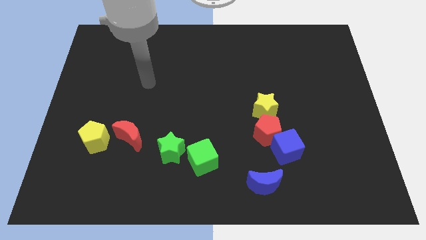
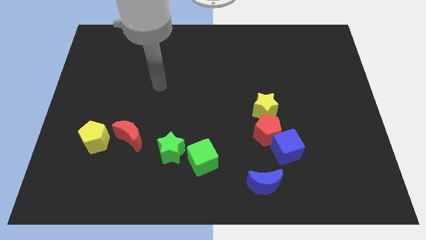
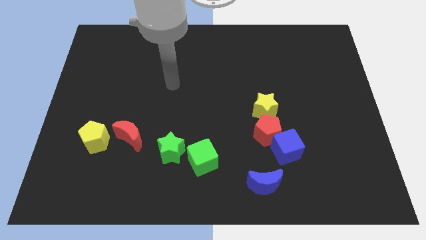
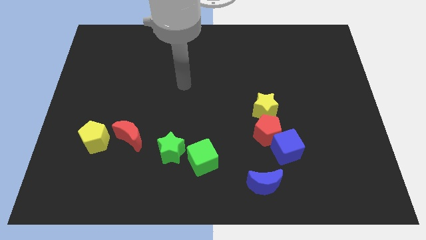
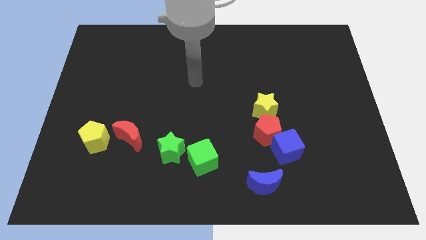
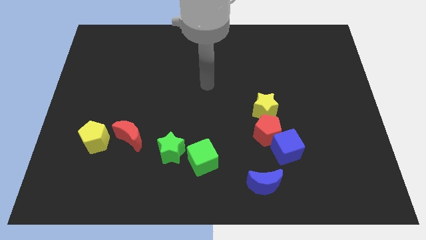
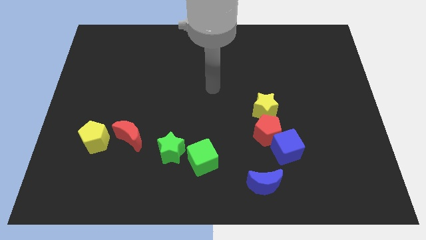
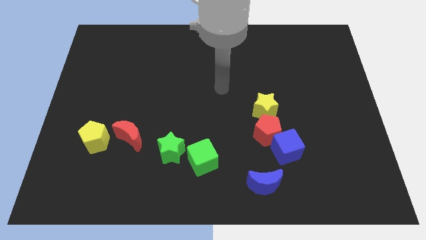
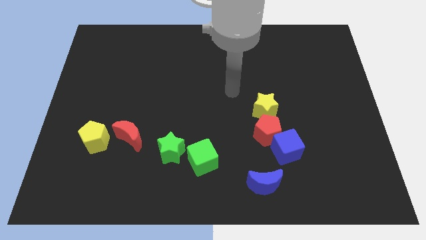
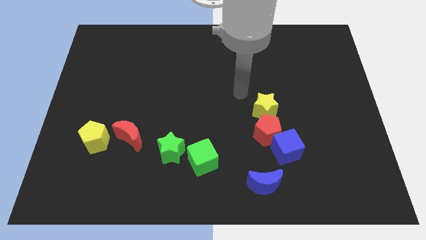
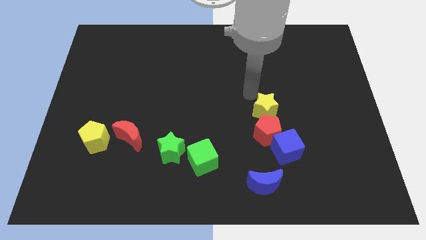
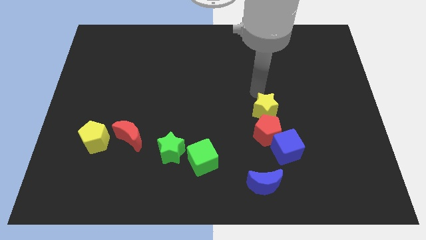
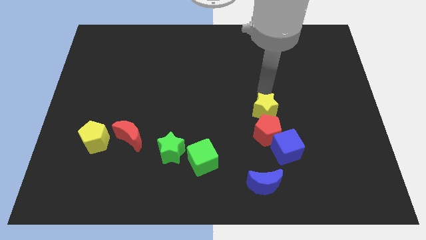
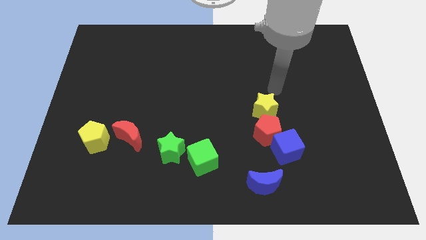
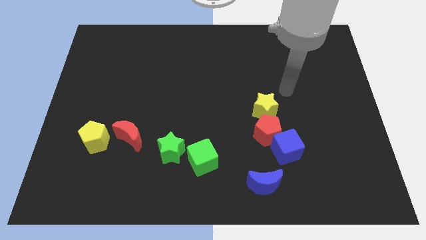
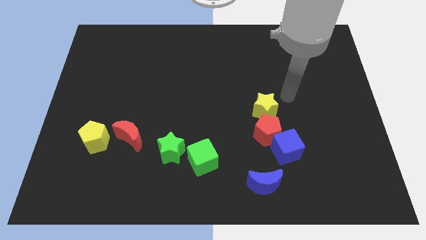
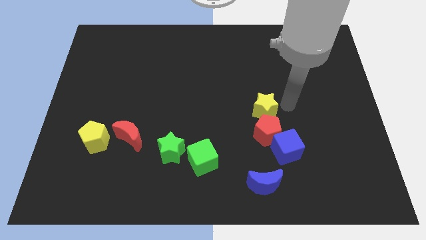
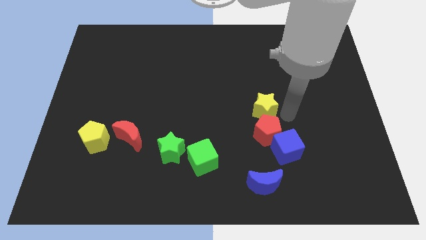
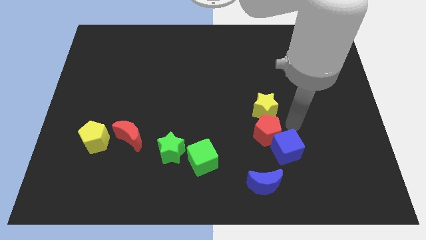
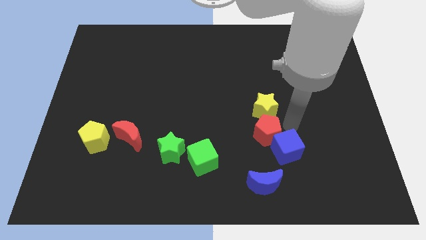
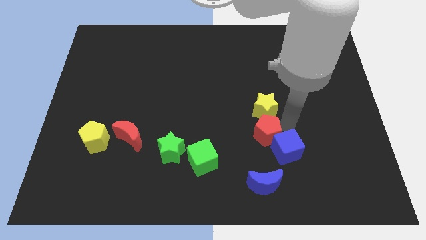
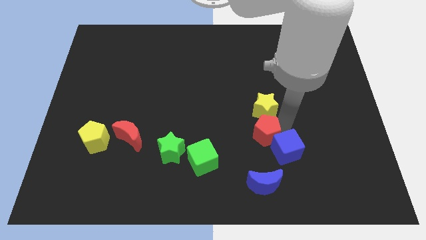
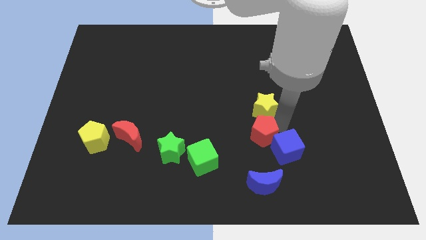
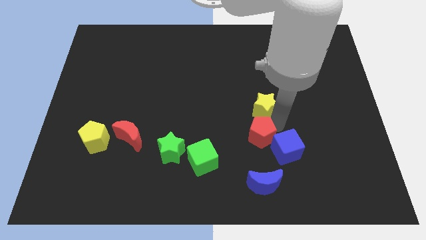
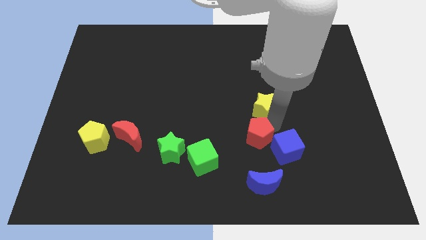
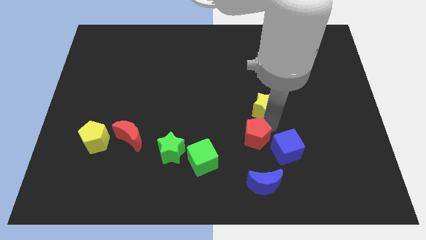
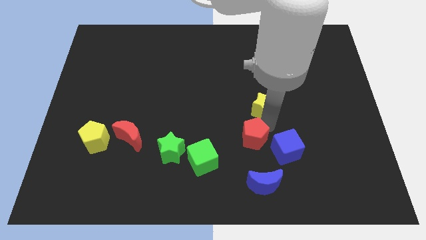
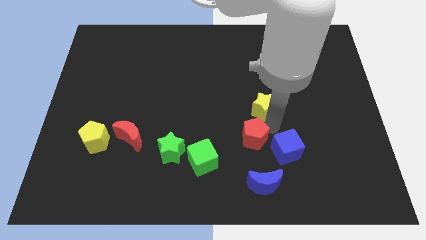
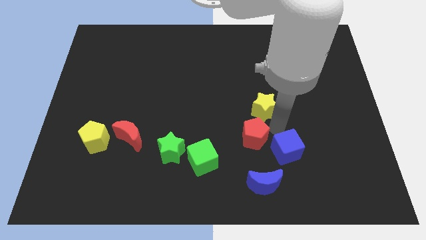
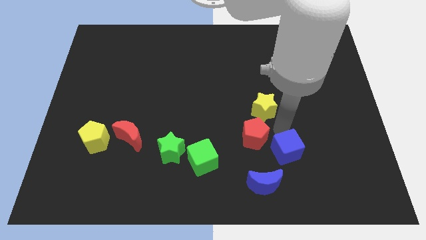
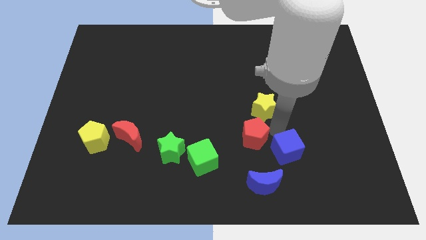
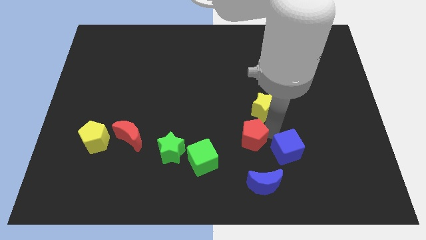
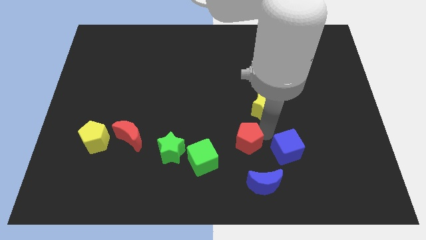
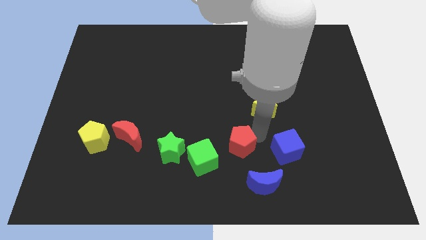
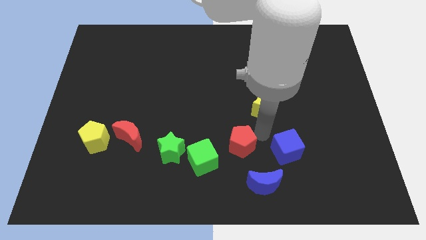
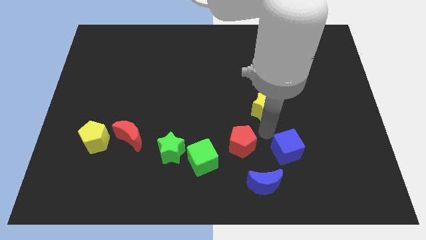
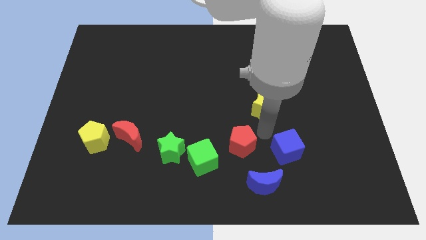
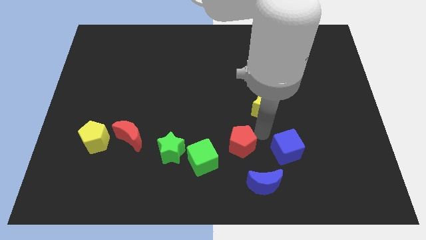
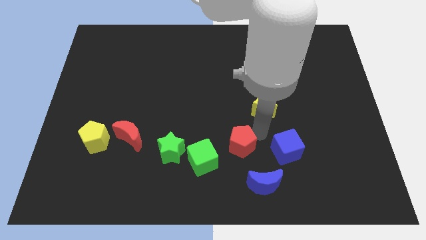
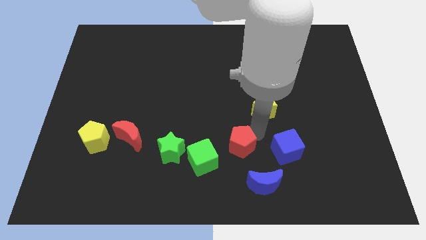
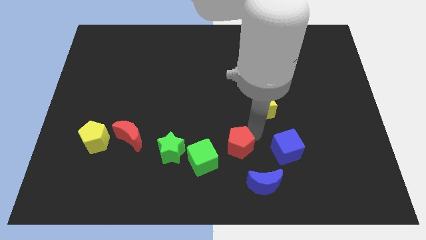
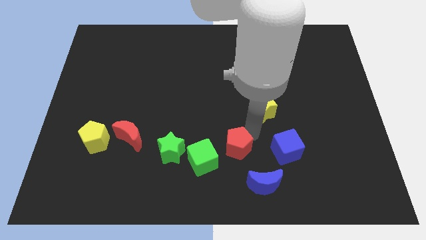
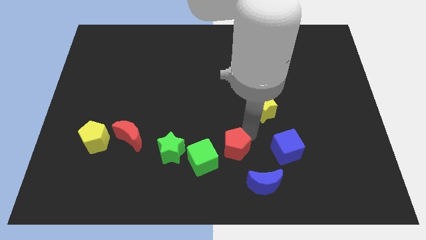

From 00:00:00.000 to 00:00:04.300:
separate the red pentagon from the blue cube and yellow star

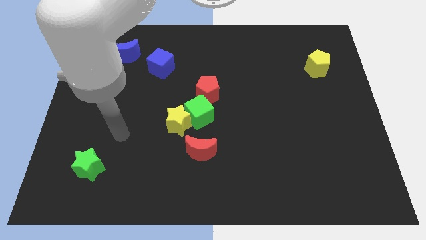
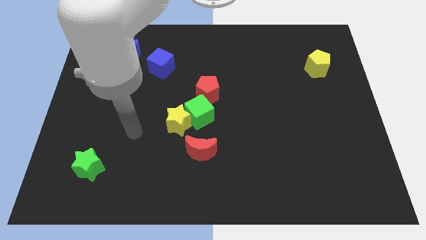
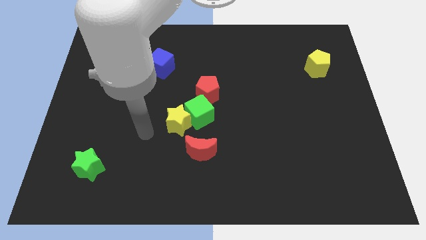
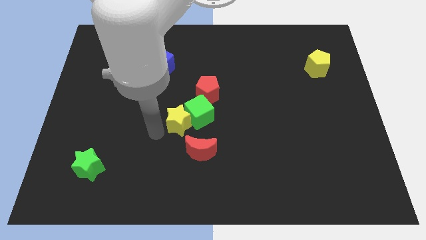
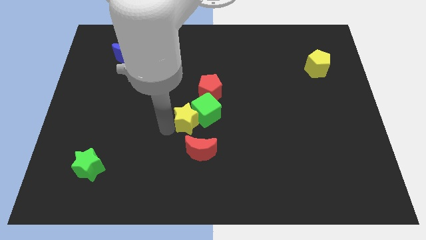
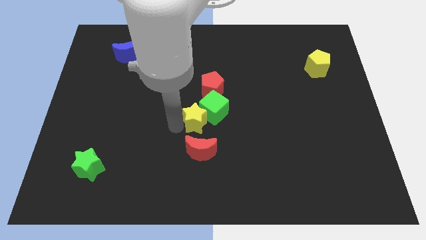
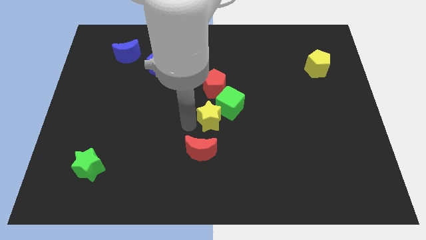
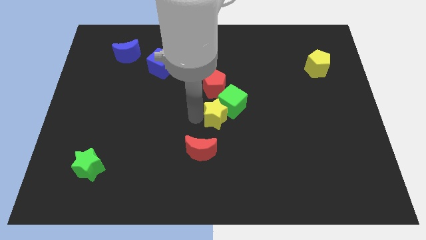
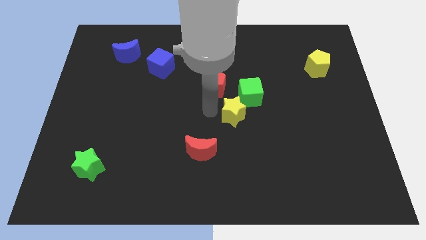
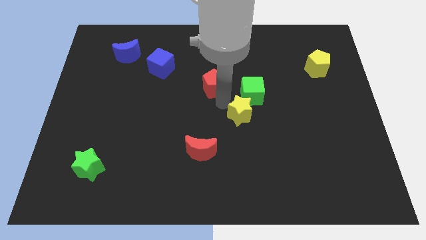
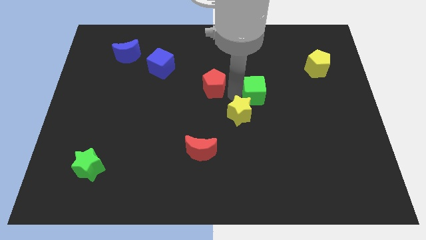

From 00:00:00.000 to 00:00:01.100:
move the red pentagon away from the green cube

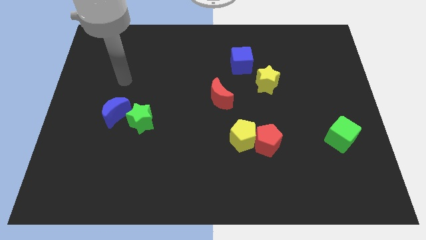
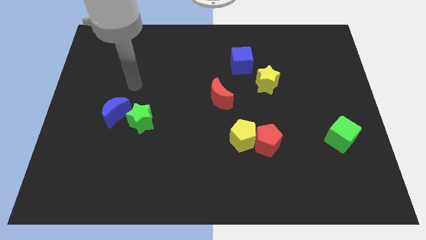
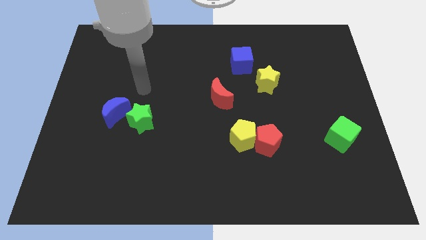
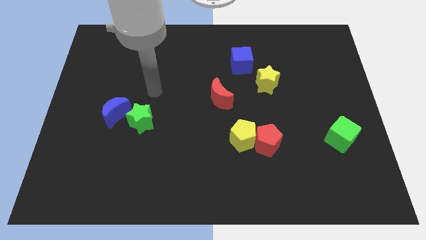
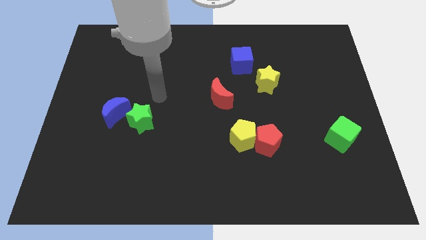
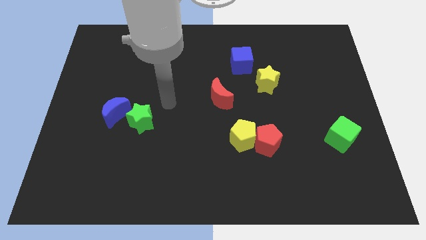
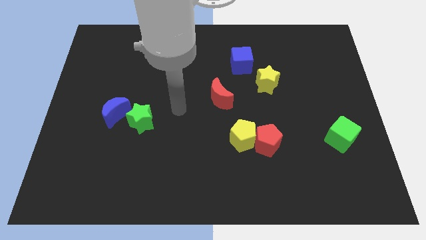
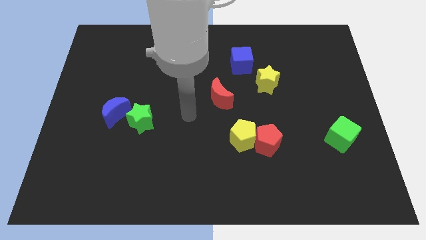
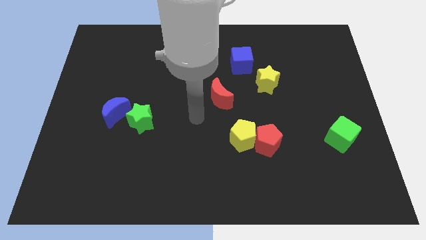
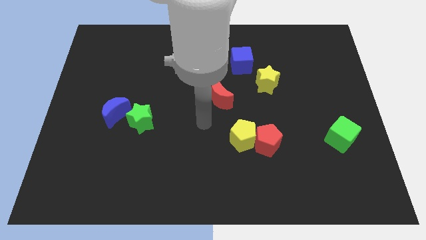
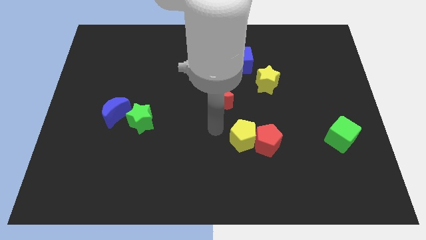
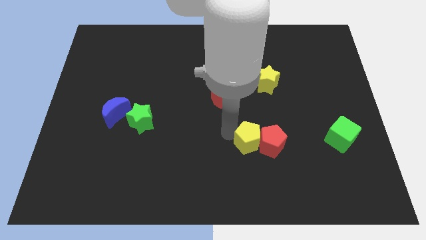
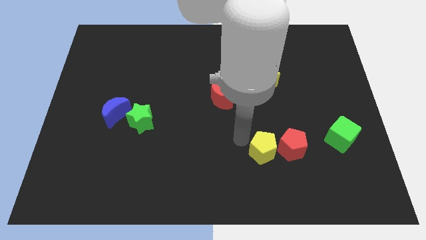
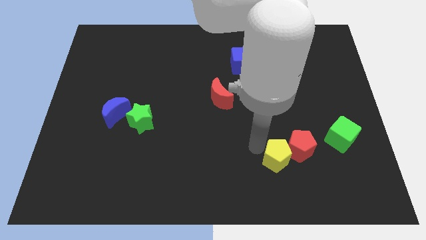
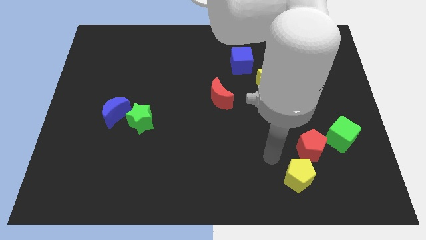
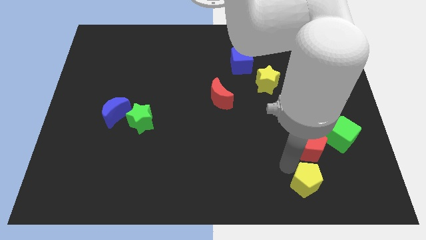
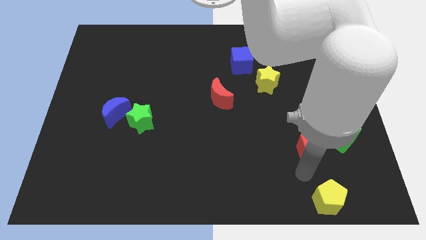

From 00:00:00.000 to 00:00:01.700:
move the red pentagon away from the yellow pentagon

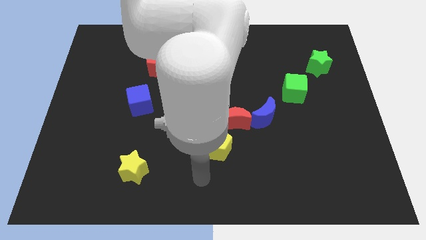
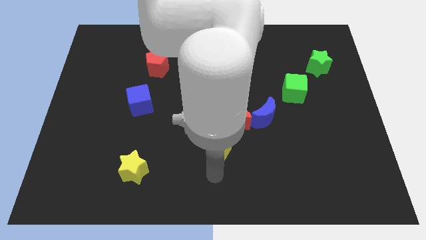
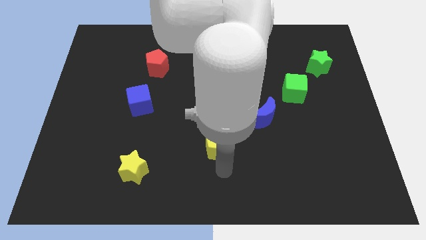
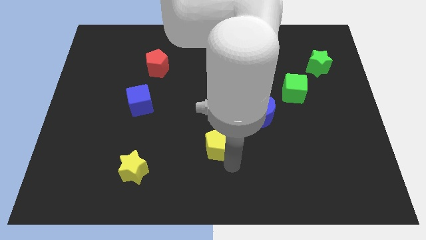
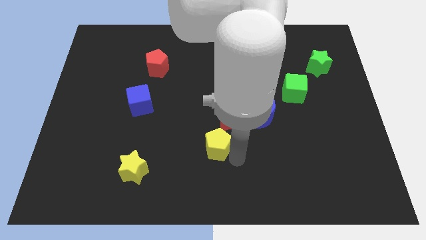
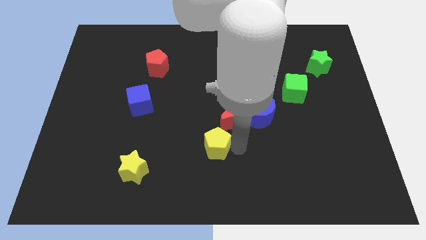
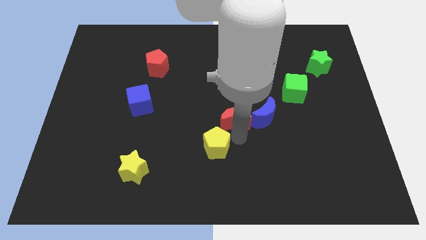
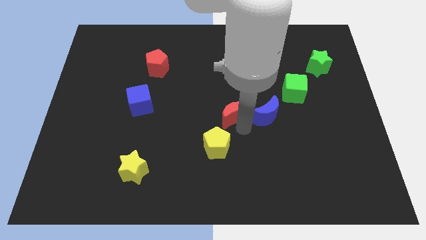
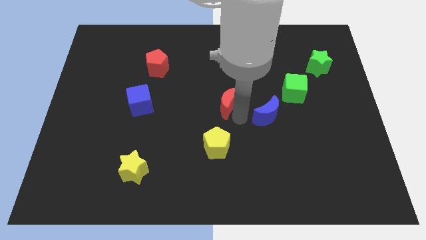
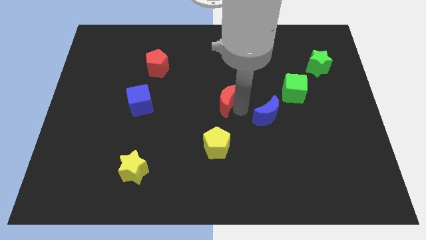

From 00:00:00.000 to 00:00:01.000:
move the blue moon away from the red moon

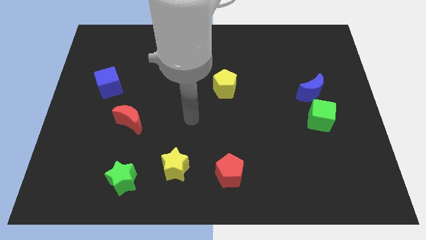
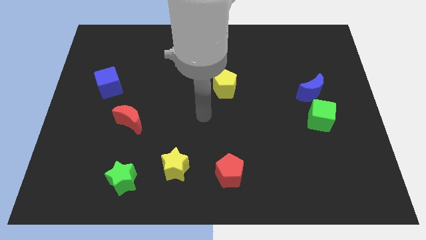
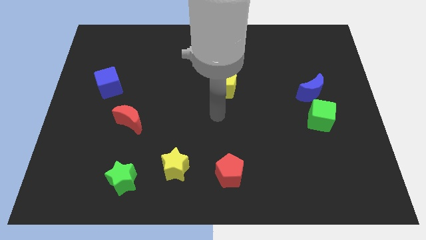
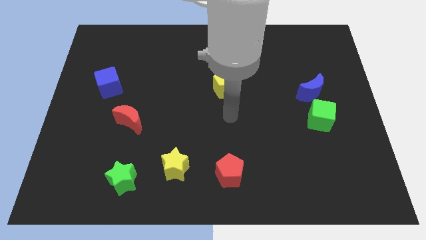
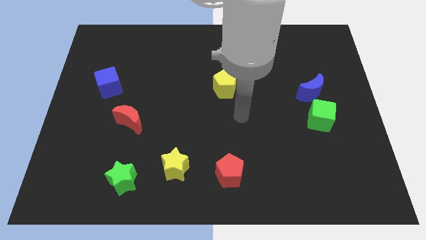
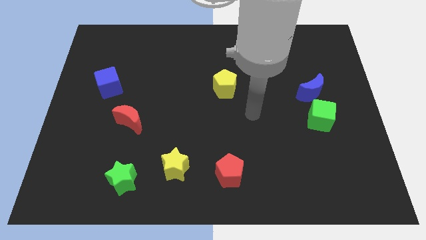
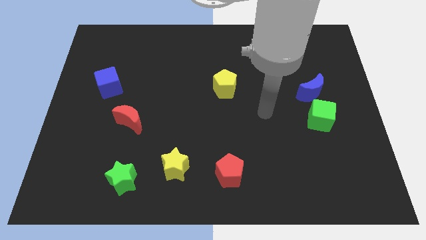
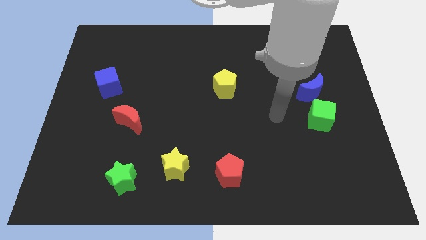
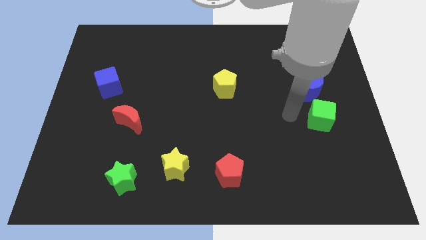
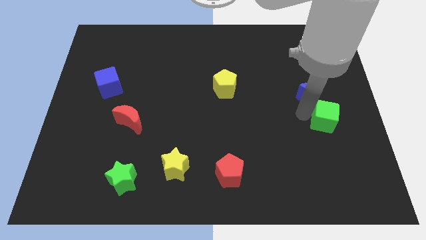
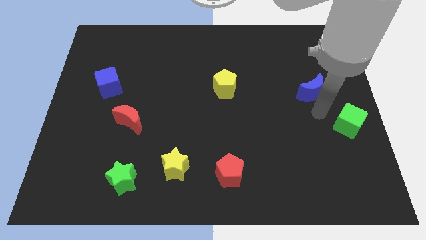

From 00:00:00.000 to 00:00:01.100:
move the blue moon away from the green cube

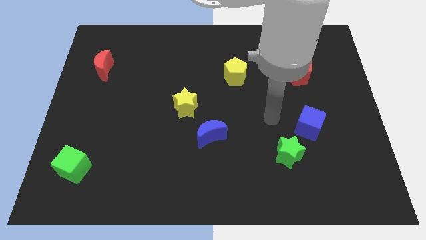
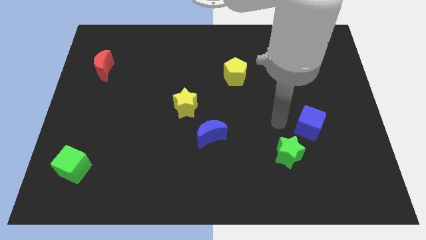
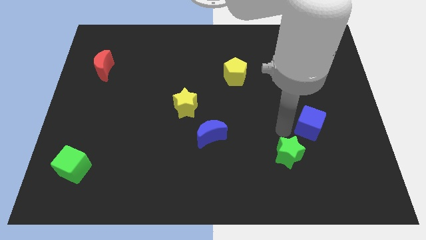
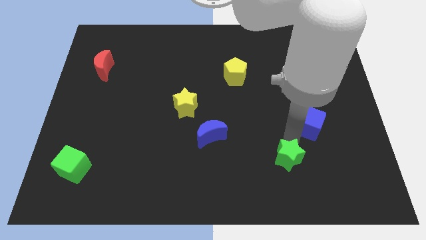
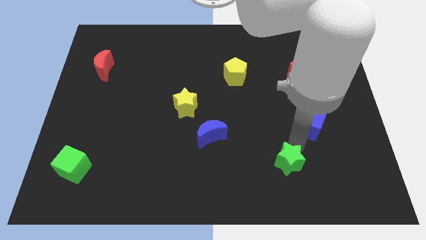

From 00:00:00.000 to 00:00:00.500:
separate the blue cube from the green star
